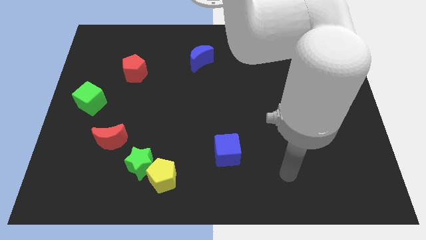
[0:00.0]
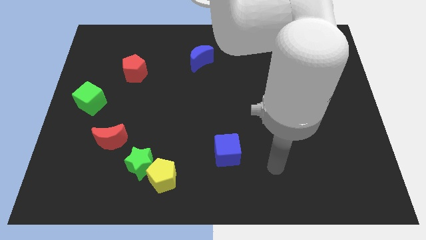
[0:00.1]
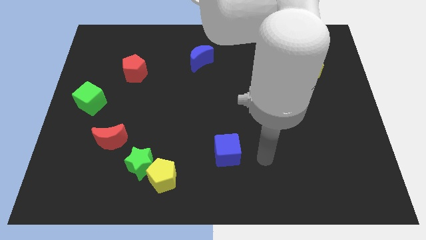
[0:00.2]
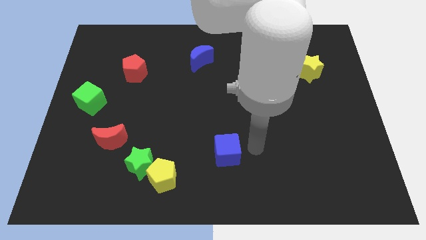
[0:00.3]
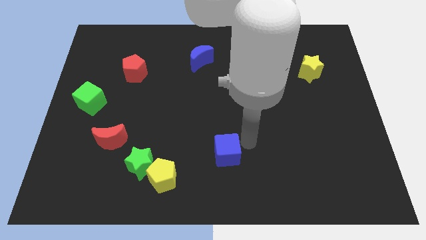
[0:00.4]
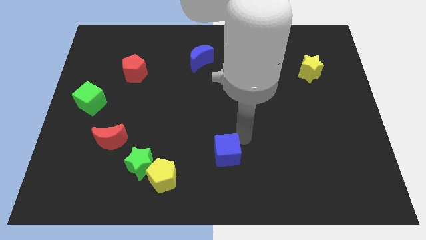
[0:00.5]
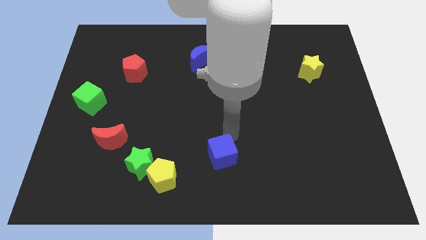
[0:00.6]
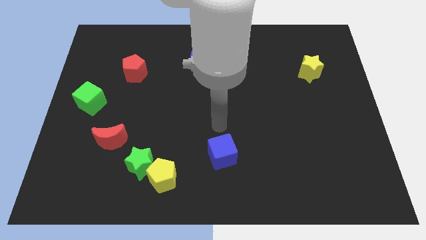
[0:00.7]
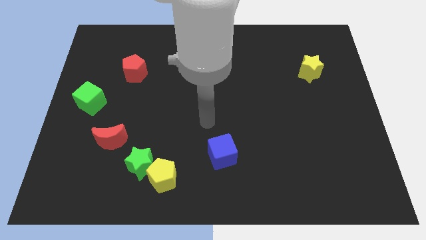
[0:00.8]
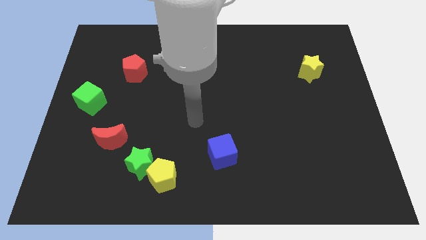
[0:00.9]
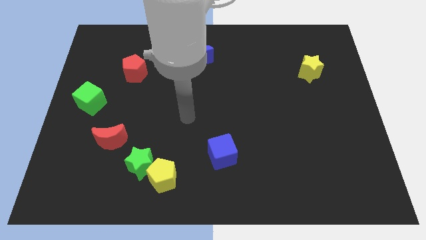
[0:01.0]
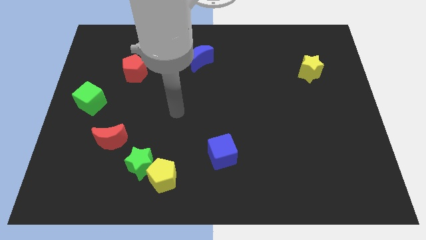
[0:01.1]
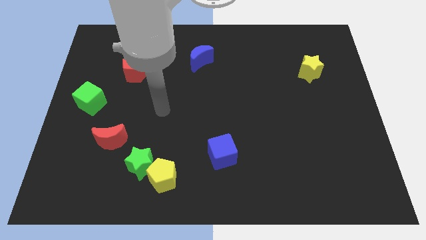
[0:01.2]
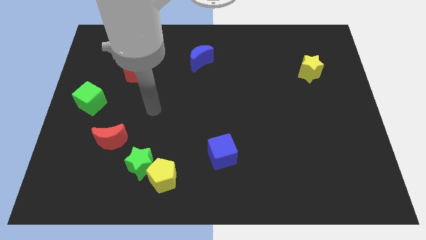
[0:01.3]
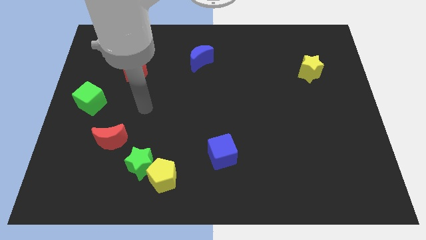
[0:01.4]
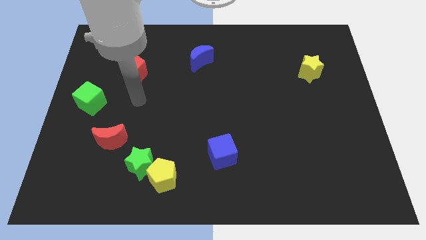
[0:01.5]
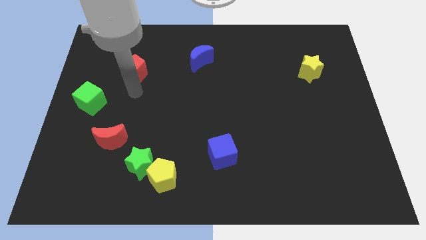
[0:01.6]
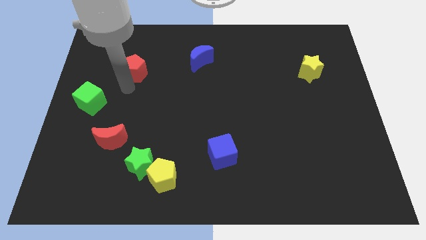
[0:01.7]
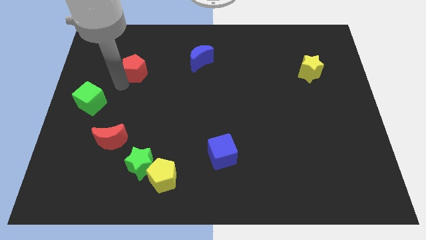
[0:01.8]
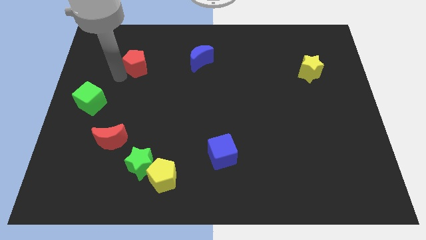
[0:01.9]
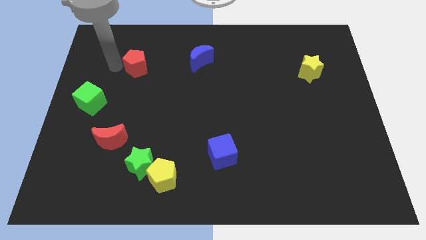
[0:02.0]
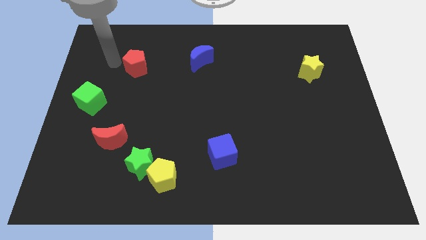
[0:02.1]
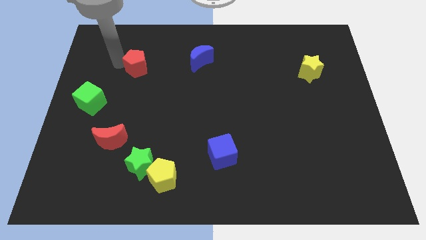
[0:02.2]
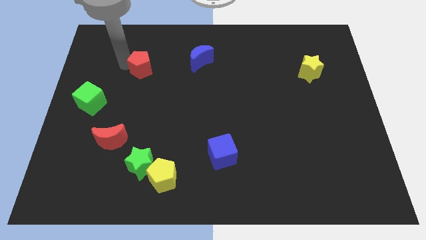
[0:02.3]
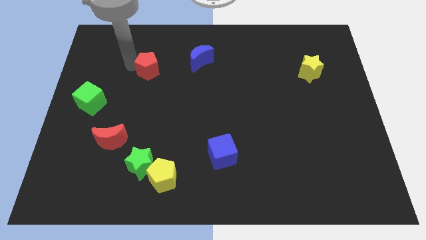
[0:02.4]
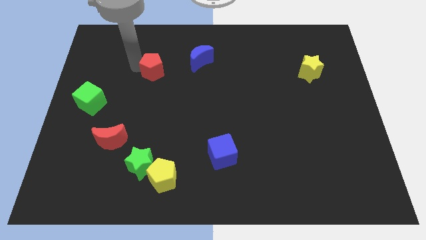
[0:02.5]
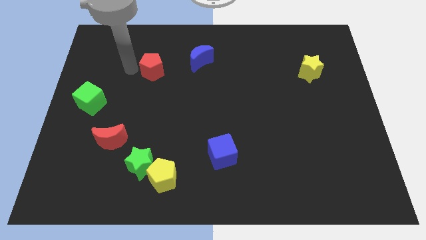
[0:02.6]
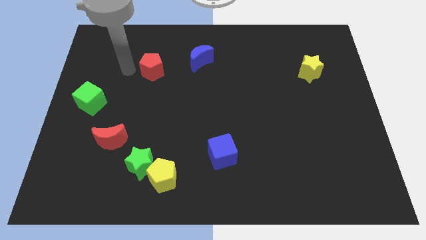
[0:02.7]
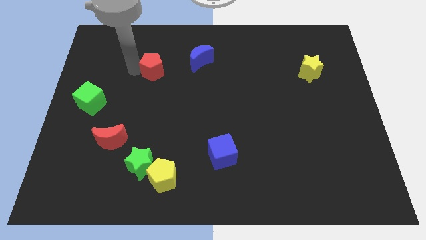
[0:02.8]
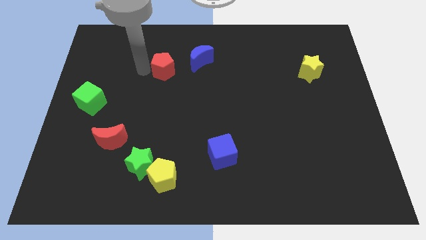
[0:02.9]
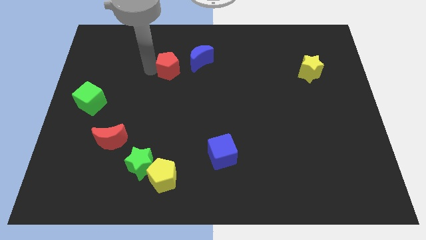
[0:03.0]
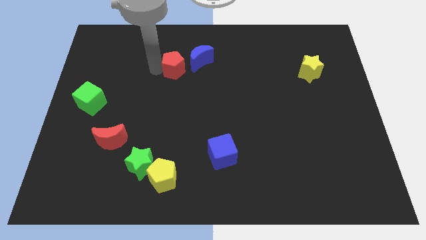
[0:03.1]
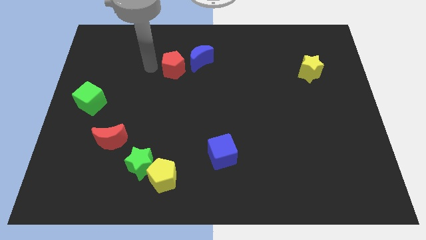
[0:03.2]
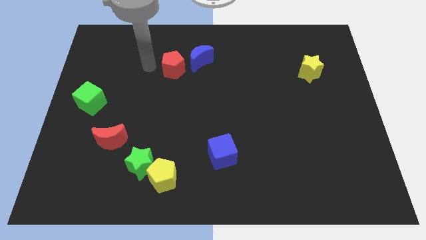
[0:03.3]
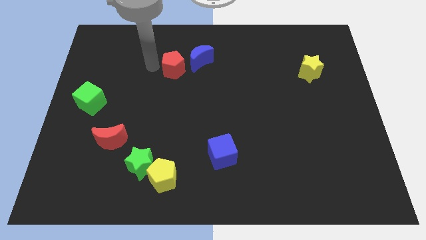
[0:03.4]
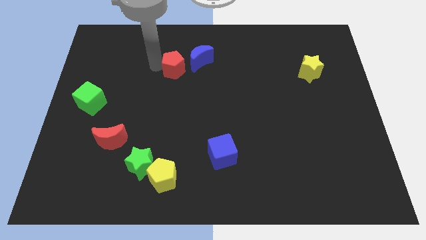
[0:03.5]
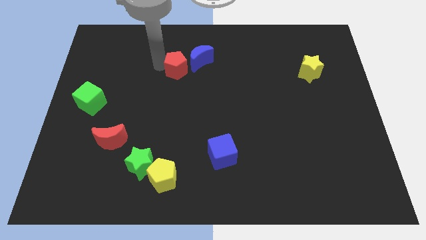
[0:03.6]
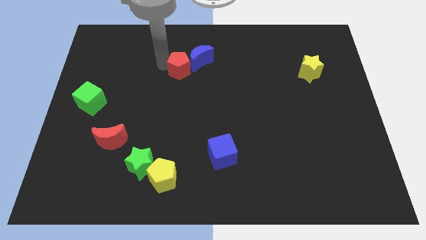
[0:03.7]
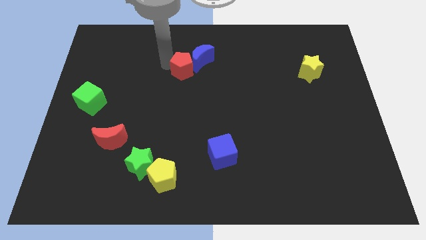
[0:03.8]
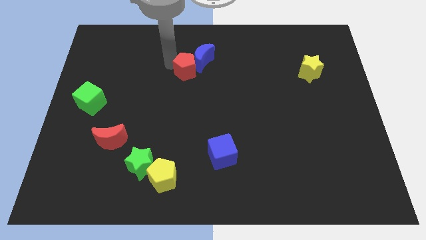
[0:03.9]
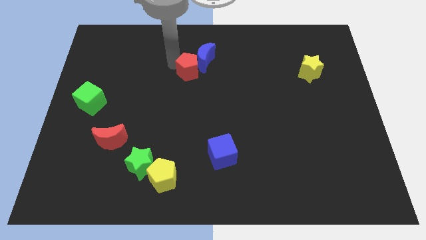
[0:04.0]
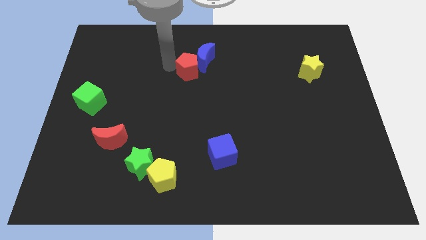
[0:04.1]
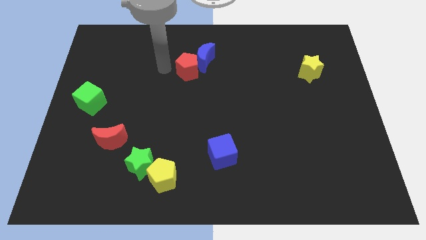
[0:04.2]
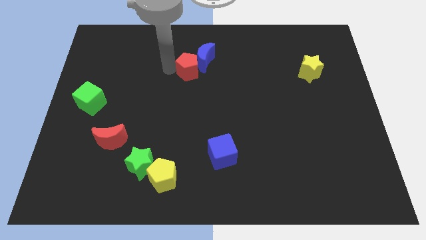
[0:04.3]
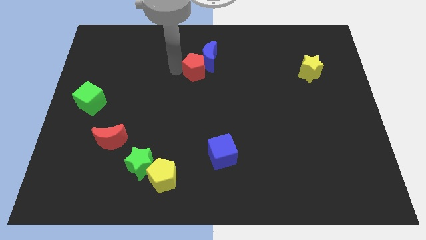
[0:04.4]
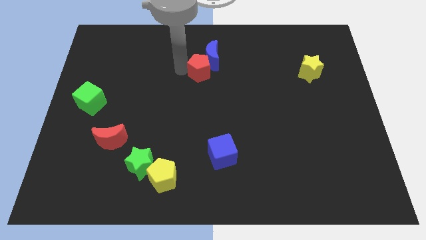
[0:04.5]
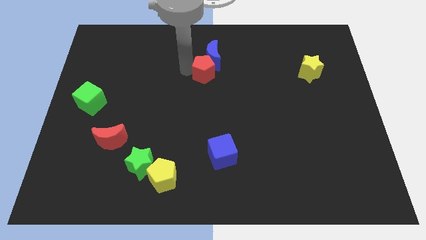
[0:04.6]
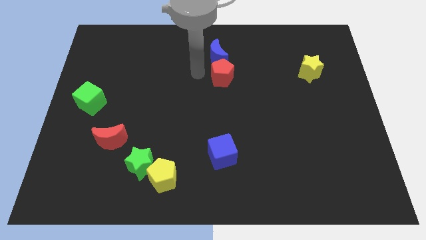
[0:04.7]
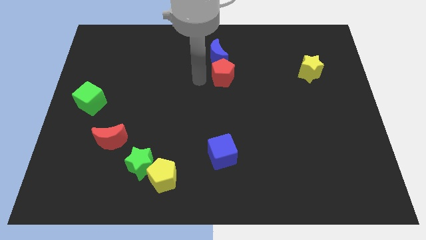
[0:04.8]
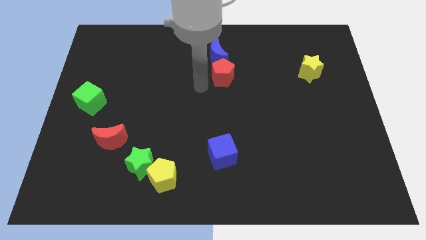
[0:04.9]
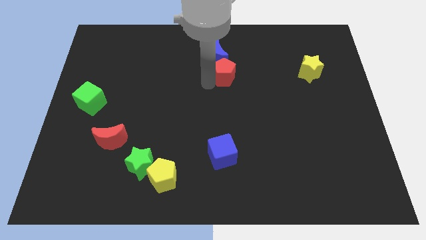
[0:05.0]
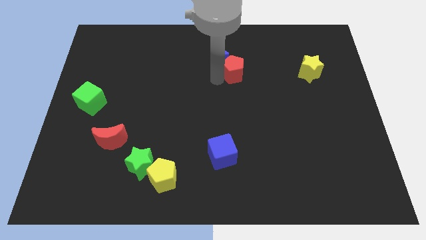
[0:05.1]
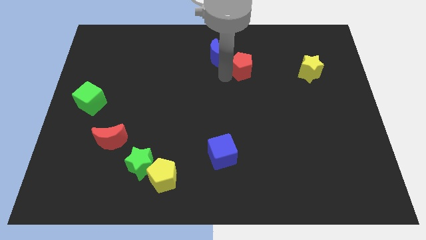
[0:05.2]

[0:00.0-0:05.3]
move the red pentagon just right of the blue moon

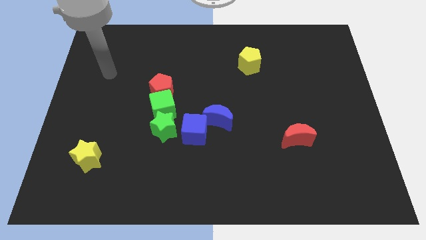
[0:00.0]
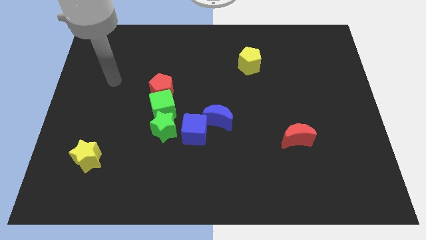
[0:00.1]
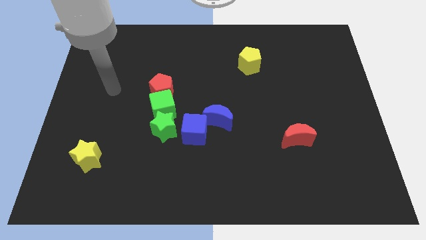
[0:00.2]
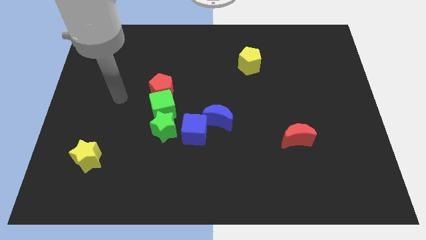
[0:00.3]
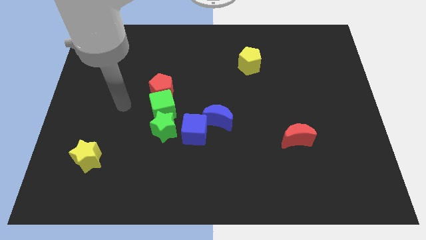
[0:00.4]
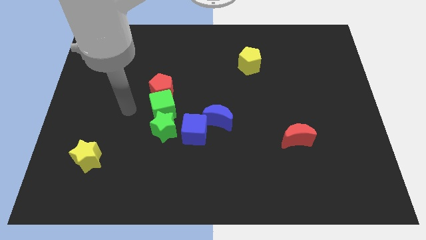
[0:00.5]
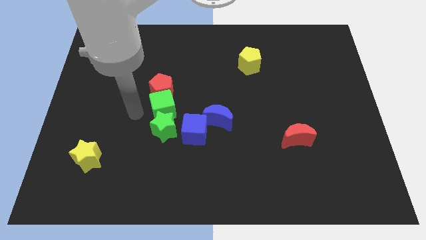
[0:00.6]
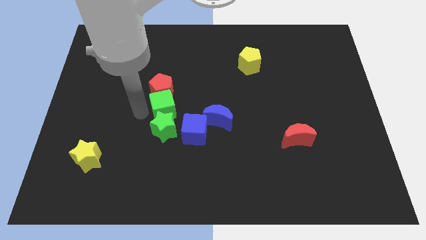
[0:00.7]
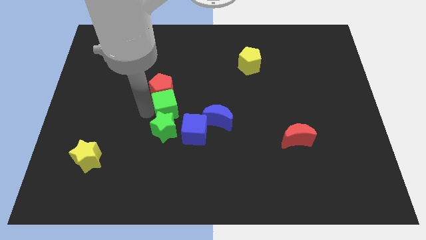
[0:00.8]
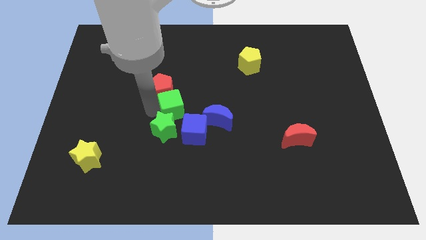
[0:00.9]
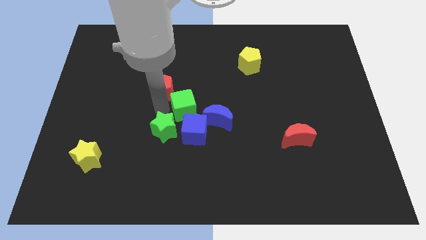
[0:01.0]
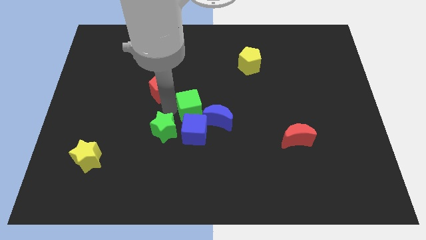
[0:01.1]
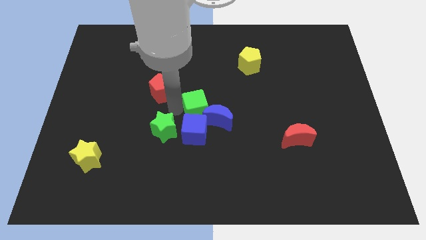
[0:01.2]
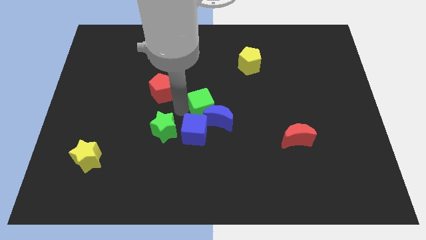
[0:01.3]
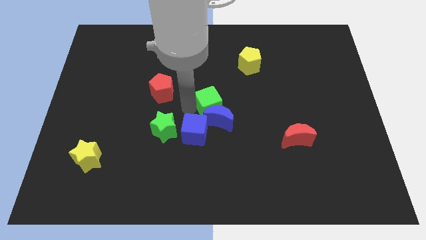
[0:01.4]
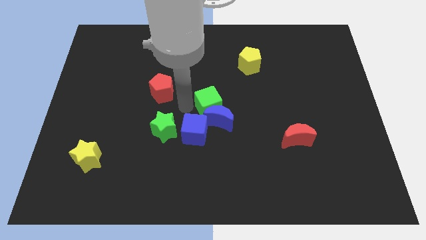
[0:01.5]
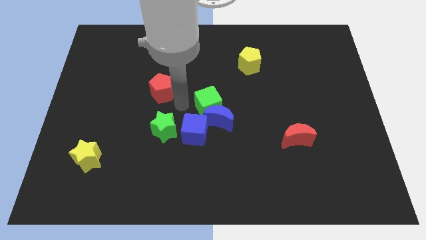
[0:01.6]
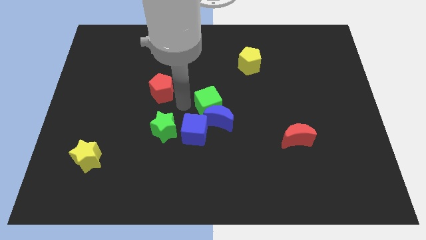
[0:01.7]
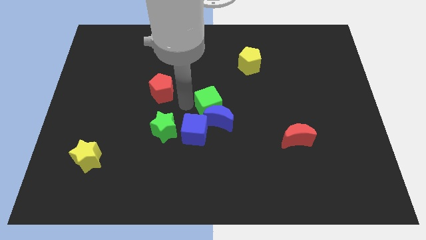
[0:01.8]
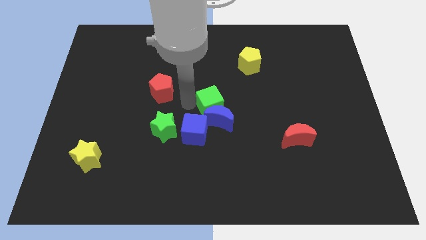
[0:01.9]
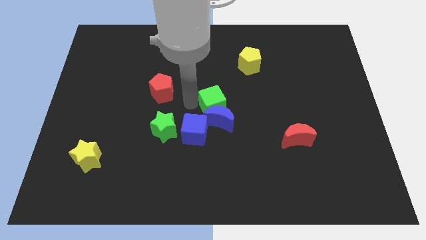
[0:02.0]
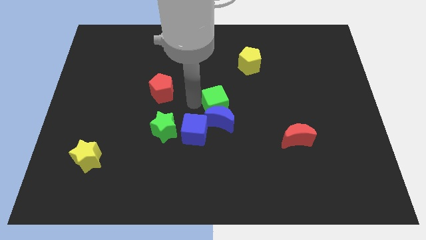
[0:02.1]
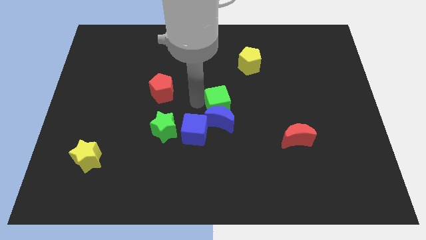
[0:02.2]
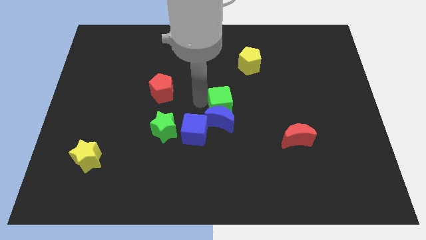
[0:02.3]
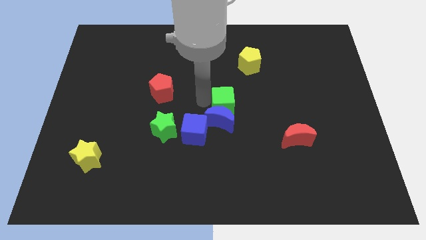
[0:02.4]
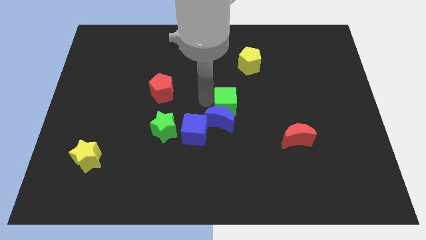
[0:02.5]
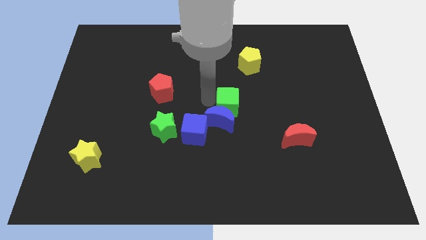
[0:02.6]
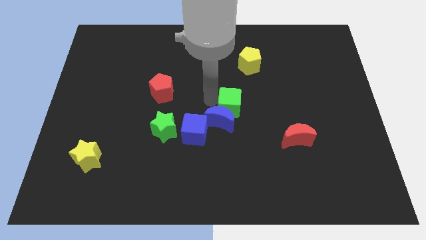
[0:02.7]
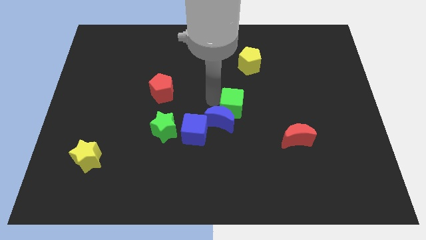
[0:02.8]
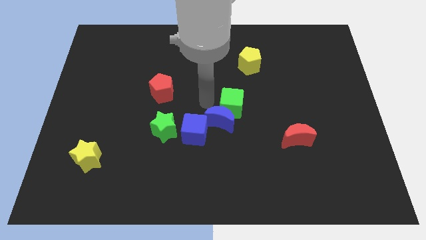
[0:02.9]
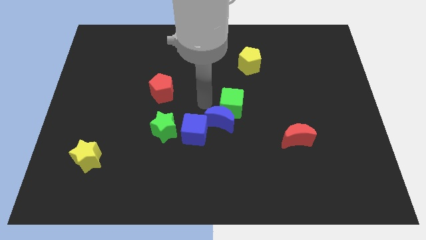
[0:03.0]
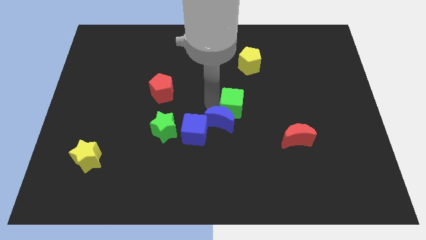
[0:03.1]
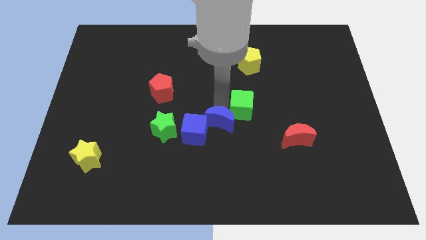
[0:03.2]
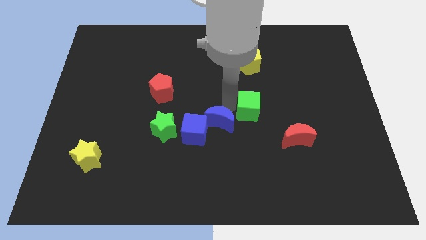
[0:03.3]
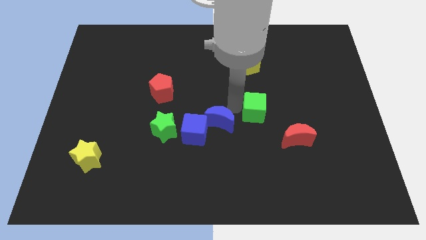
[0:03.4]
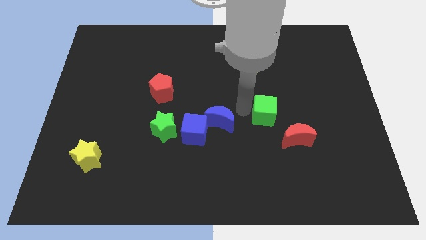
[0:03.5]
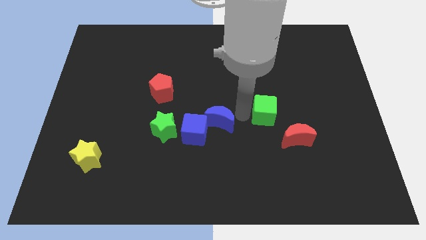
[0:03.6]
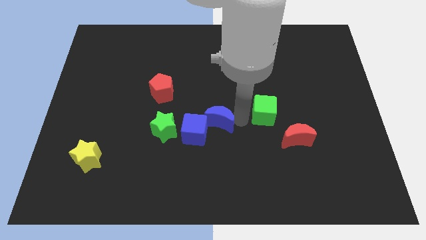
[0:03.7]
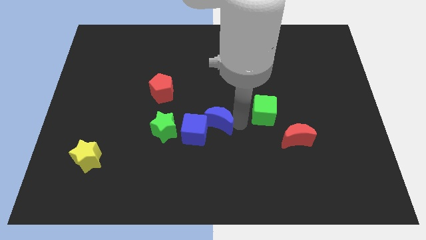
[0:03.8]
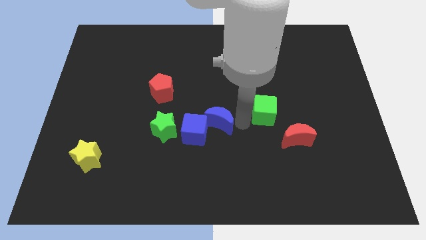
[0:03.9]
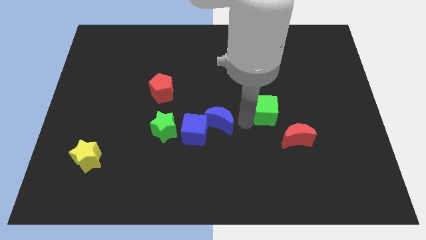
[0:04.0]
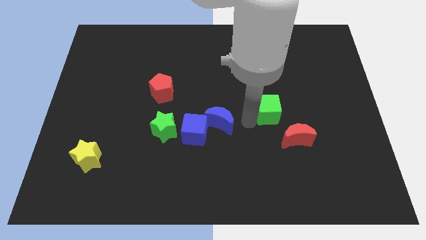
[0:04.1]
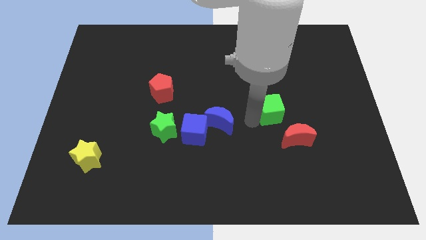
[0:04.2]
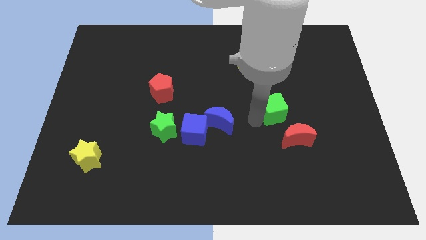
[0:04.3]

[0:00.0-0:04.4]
move the green cube above the red moon
